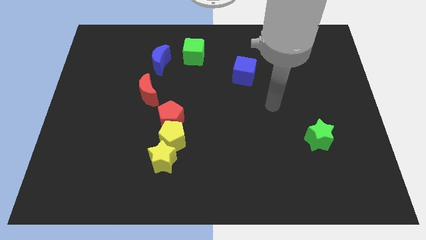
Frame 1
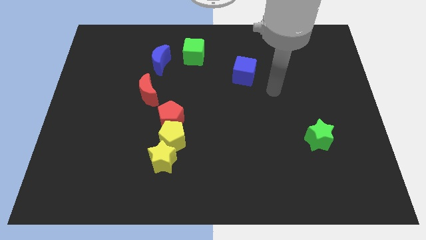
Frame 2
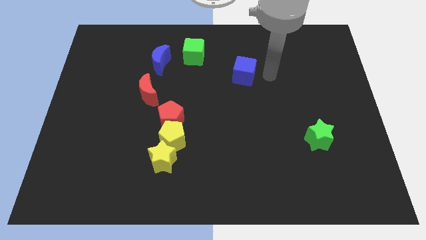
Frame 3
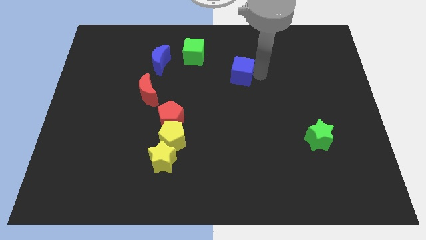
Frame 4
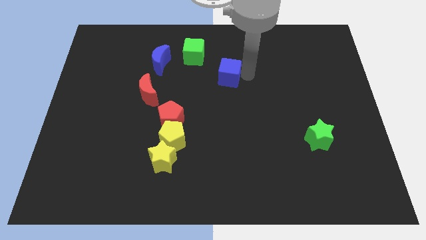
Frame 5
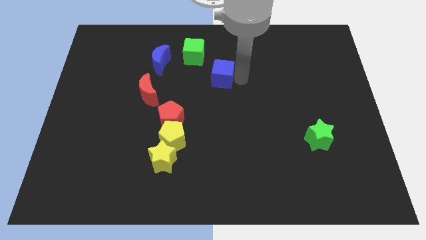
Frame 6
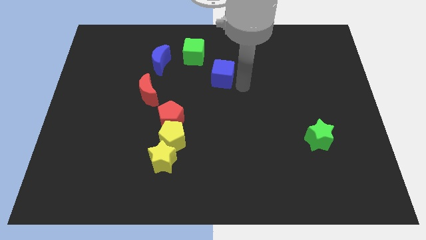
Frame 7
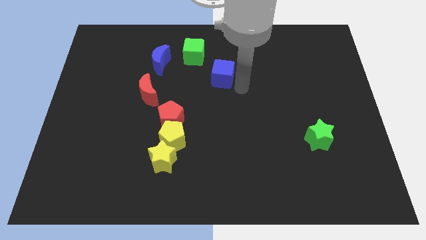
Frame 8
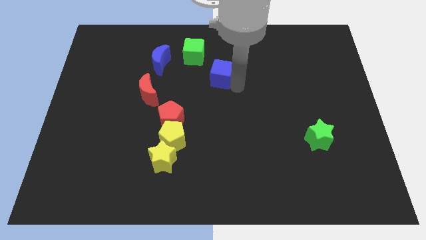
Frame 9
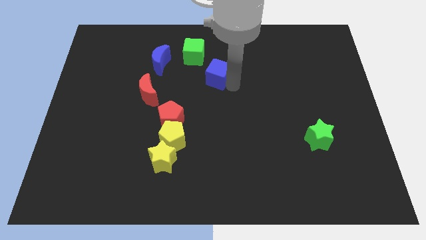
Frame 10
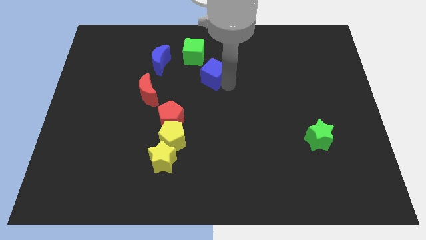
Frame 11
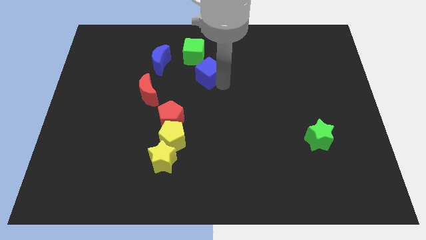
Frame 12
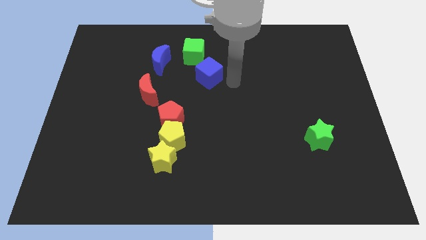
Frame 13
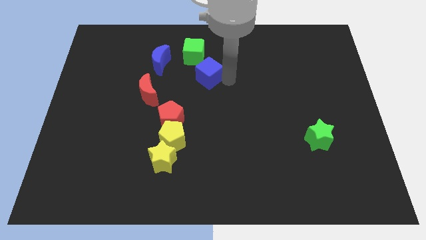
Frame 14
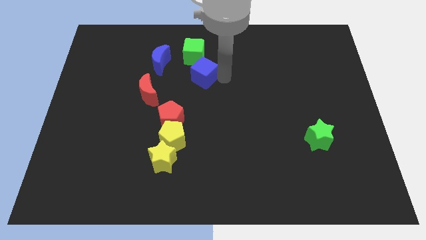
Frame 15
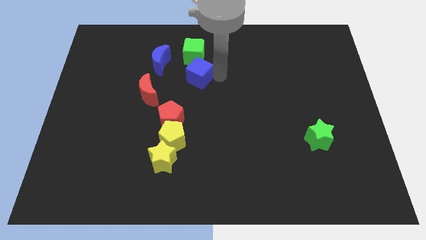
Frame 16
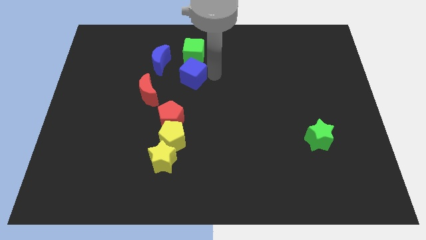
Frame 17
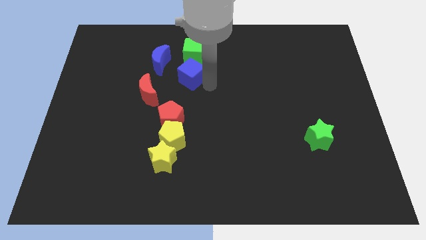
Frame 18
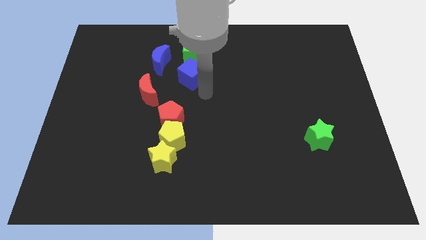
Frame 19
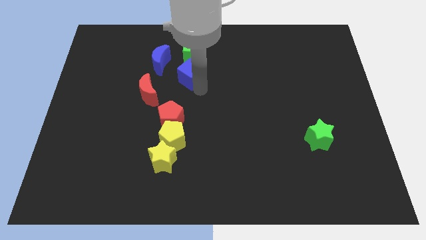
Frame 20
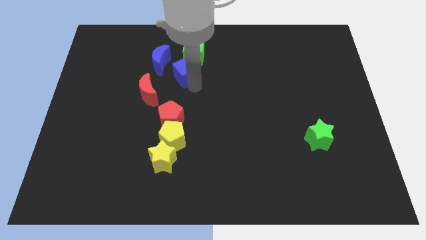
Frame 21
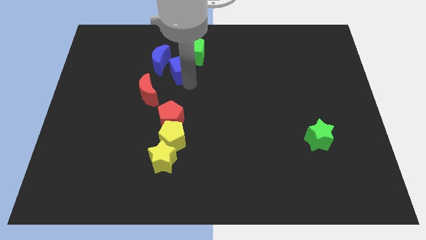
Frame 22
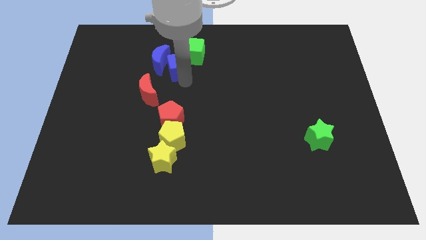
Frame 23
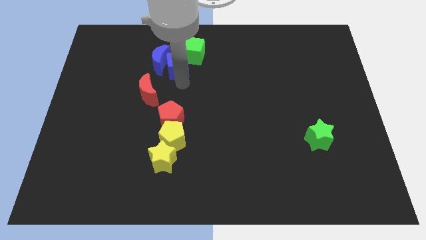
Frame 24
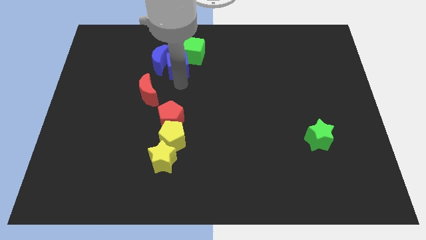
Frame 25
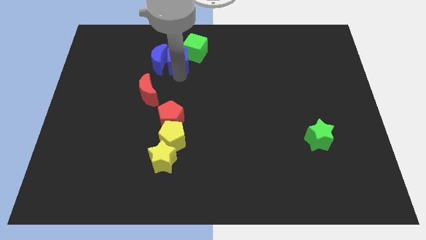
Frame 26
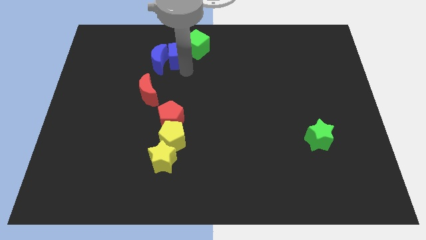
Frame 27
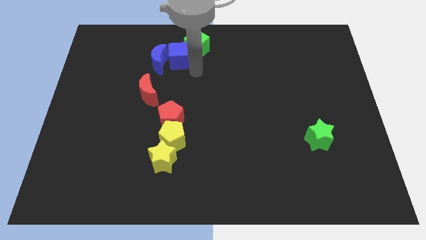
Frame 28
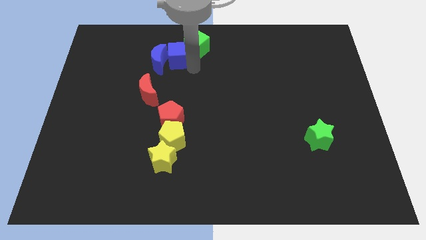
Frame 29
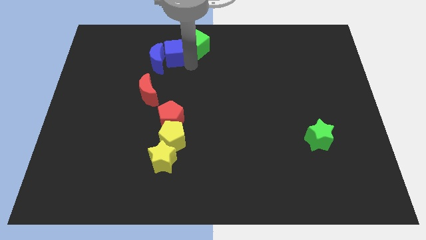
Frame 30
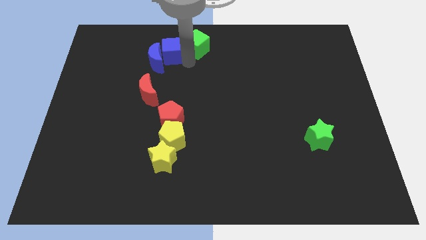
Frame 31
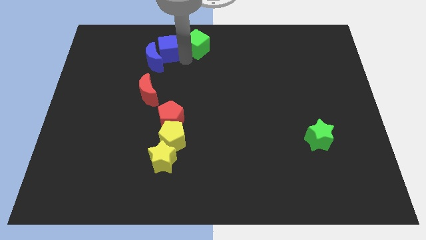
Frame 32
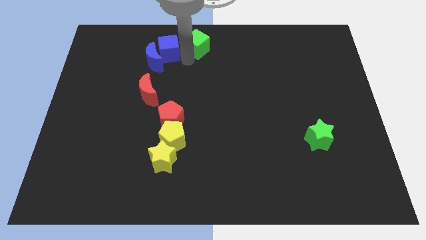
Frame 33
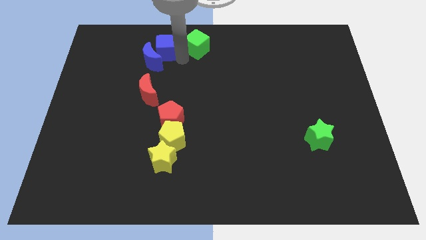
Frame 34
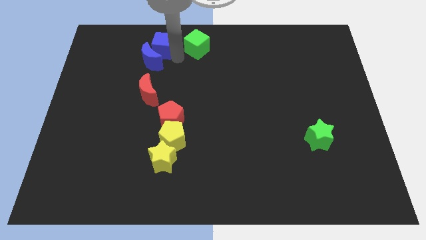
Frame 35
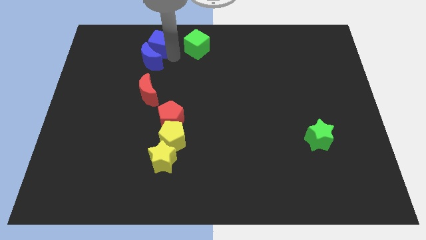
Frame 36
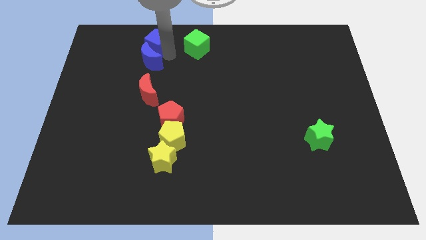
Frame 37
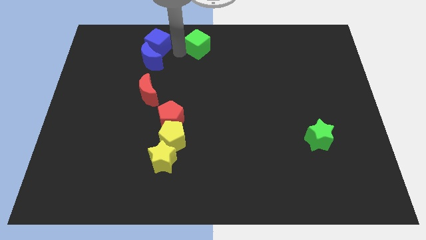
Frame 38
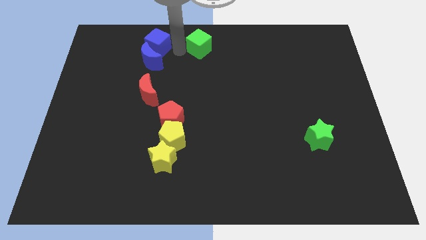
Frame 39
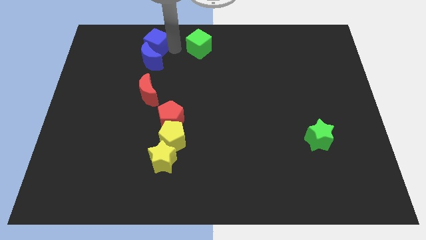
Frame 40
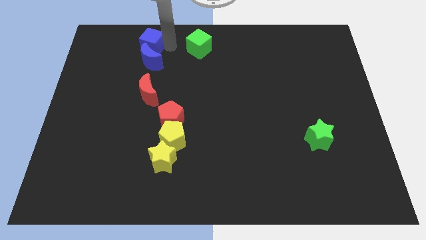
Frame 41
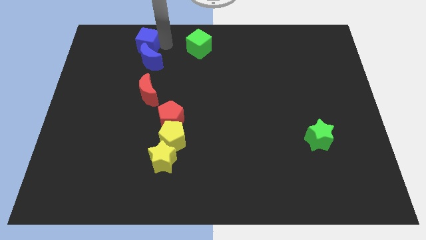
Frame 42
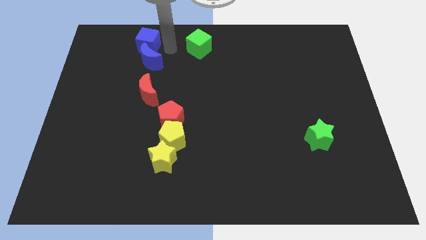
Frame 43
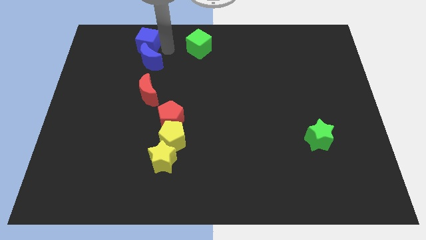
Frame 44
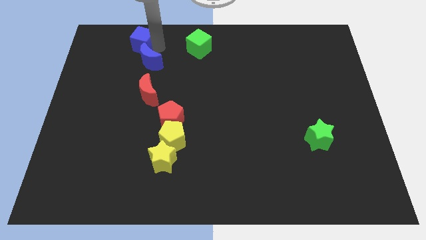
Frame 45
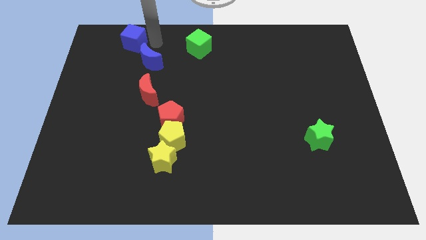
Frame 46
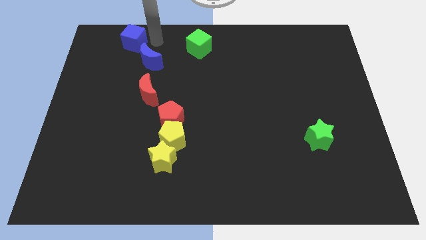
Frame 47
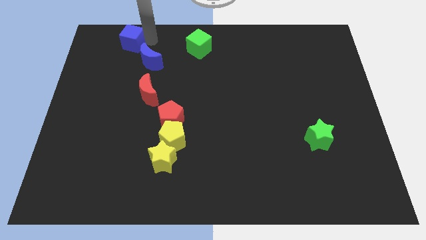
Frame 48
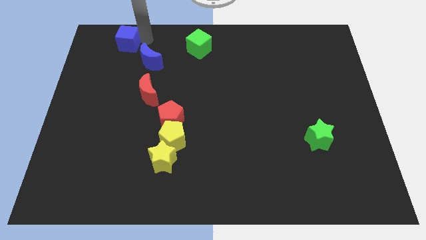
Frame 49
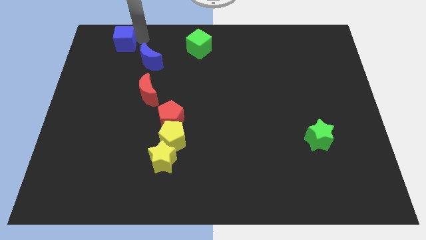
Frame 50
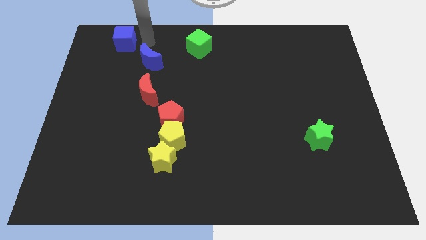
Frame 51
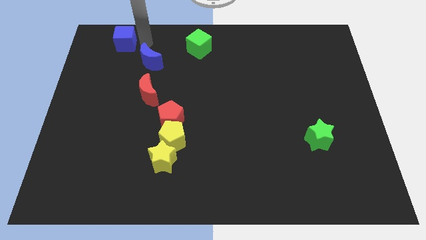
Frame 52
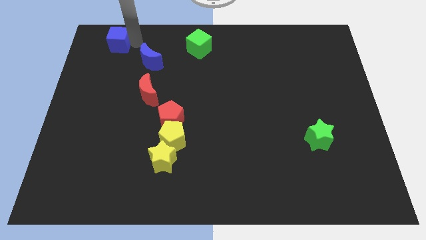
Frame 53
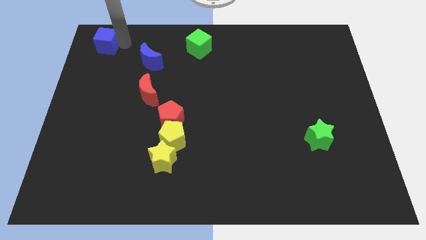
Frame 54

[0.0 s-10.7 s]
push the blue cube to the upper left corner

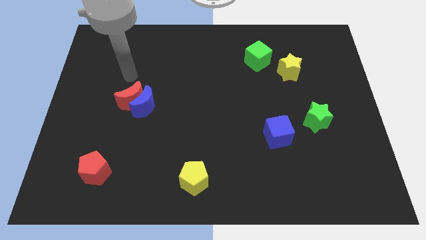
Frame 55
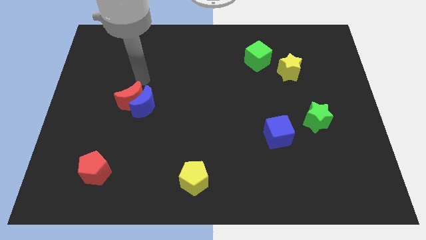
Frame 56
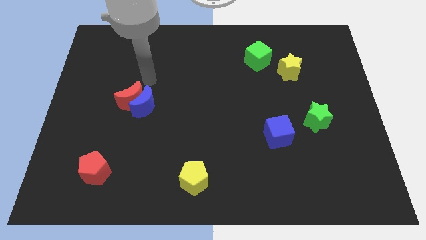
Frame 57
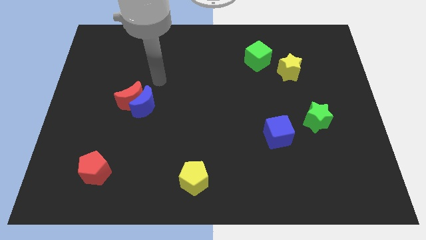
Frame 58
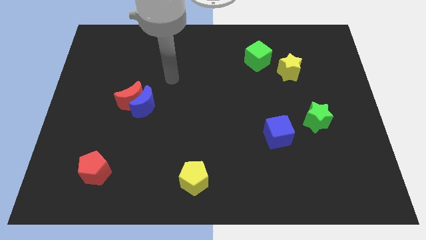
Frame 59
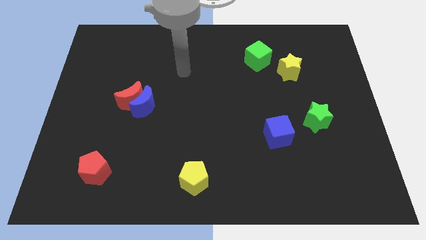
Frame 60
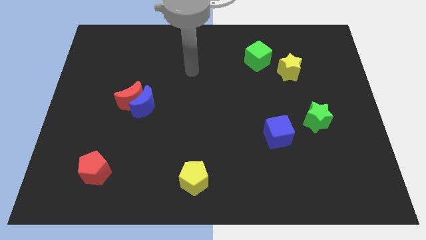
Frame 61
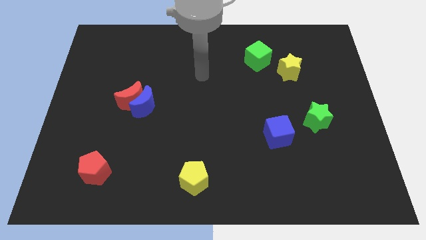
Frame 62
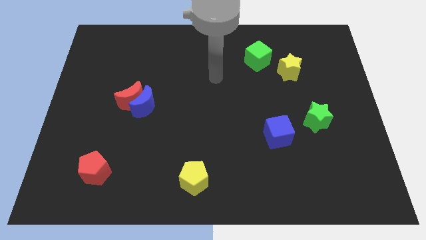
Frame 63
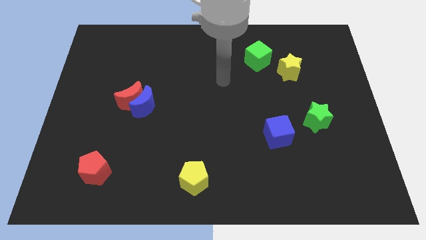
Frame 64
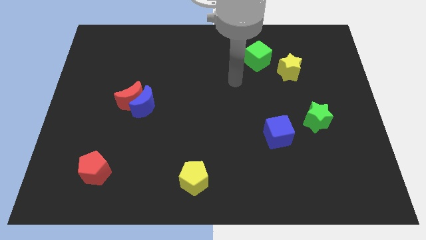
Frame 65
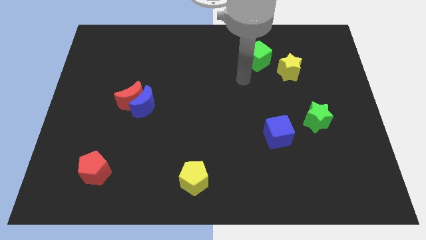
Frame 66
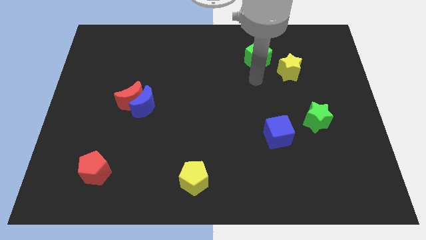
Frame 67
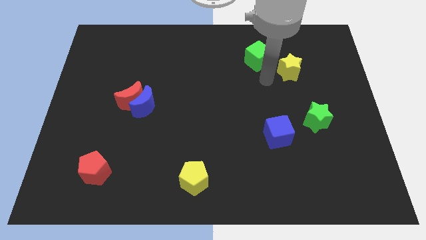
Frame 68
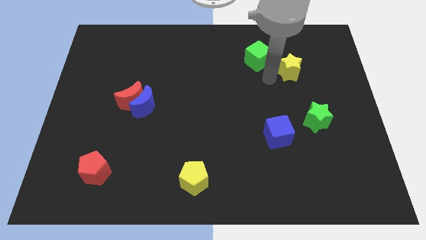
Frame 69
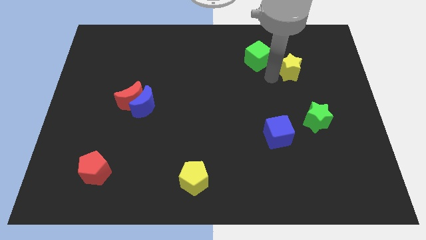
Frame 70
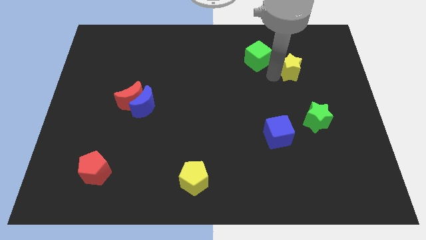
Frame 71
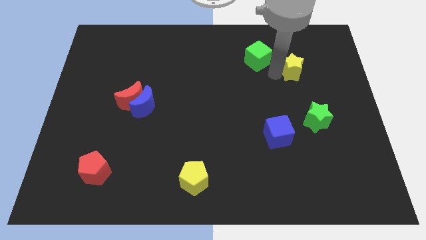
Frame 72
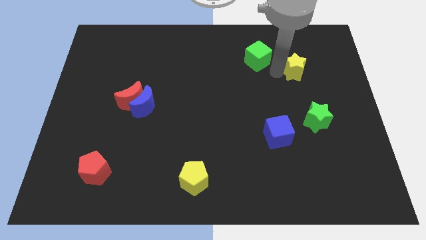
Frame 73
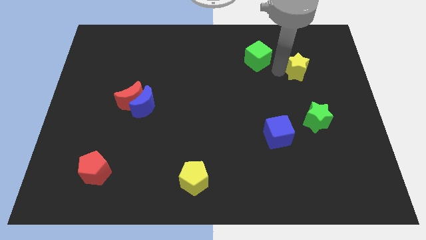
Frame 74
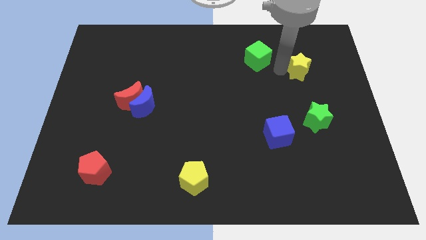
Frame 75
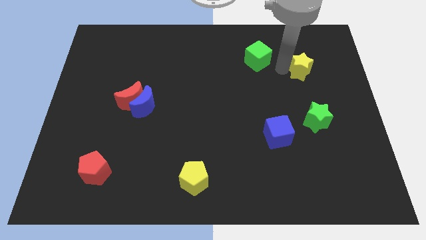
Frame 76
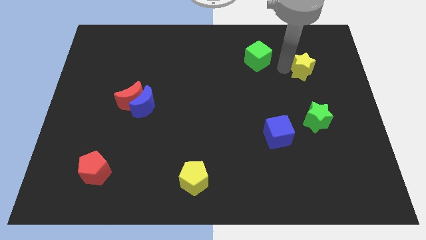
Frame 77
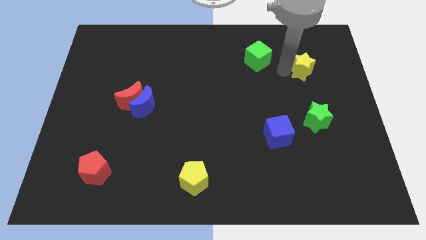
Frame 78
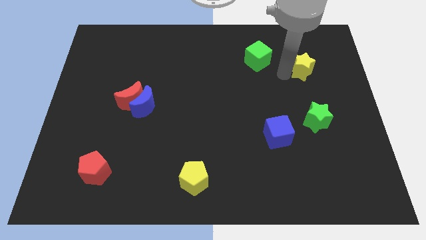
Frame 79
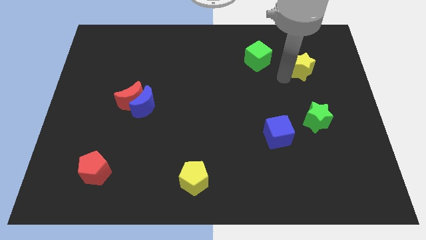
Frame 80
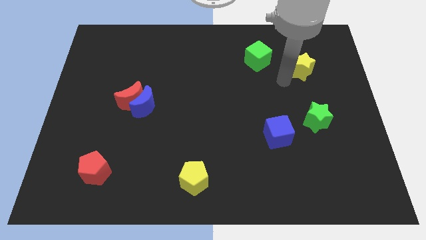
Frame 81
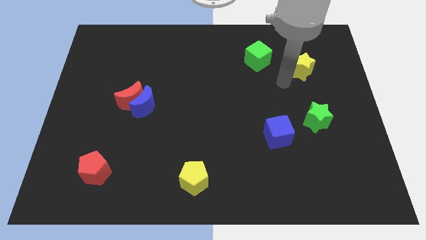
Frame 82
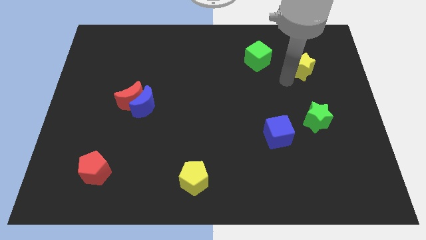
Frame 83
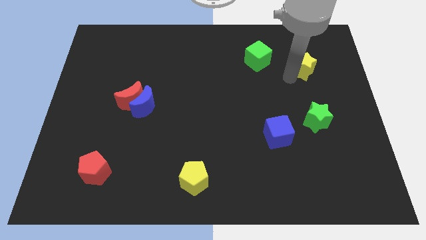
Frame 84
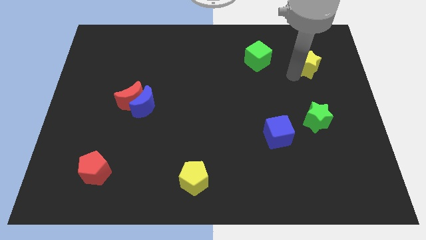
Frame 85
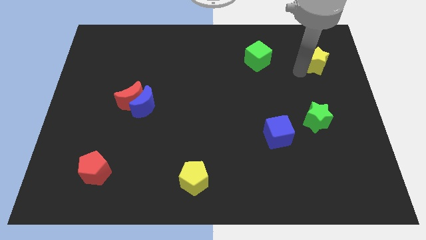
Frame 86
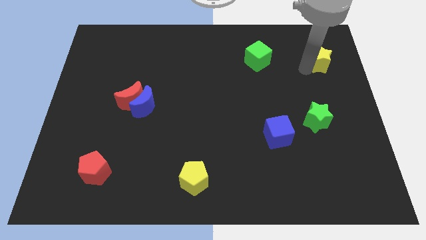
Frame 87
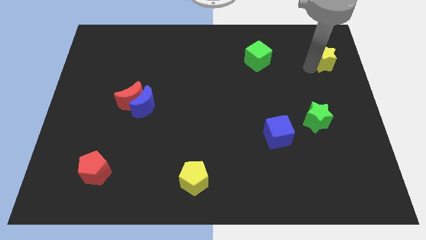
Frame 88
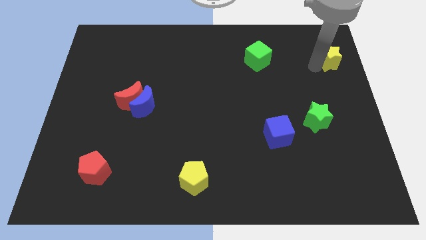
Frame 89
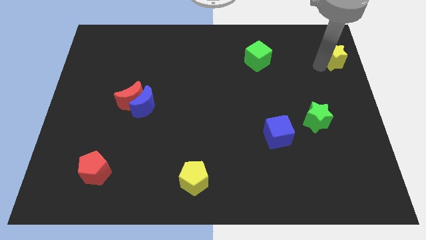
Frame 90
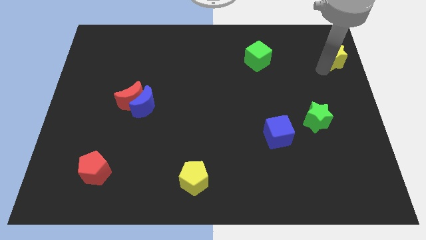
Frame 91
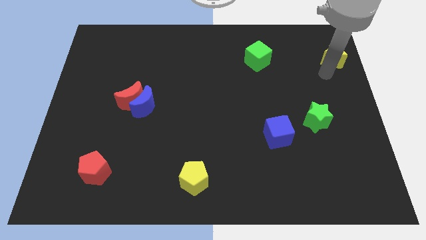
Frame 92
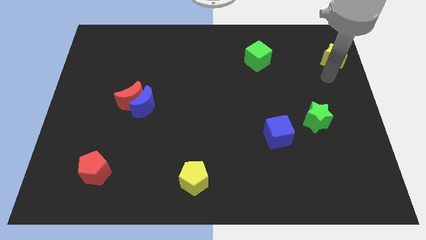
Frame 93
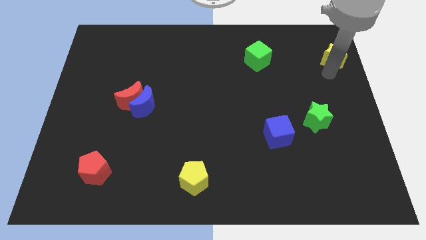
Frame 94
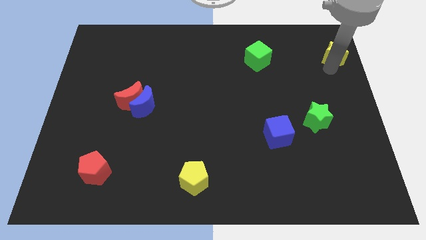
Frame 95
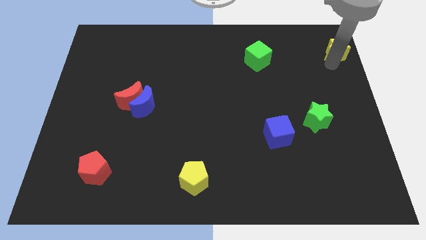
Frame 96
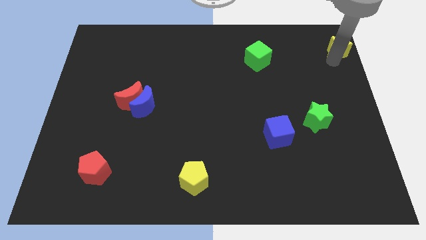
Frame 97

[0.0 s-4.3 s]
move the yellow star to the top right corner
